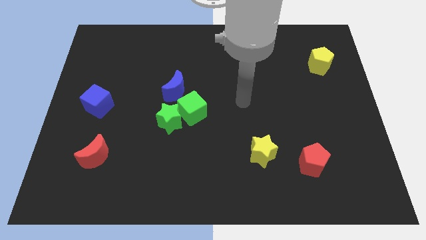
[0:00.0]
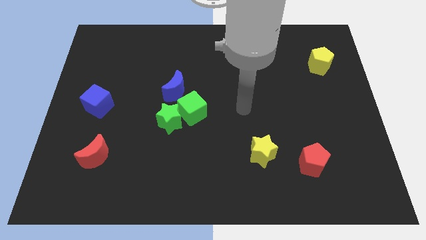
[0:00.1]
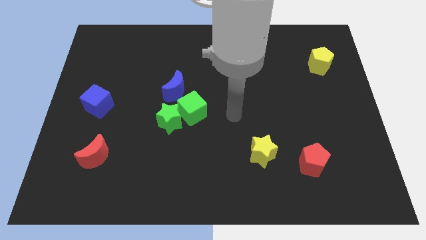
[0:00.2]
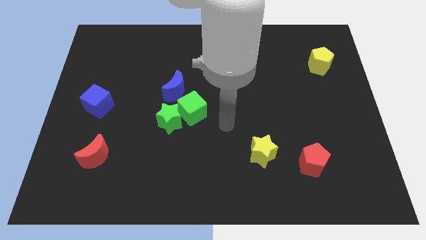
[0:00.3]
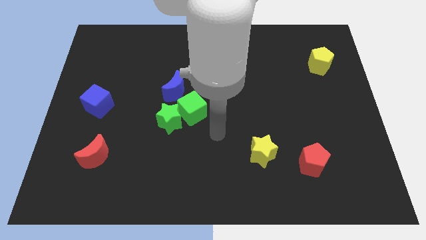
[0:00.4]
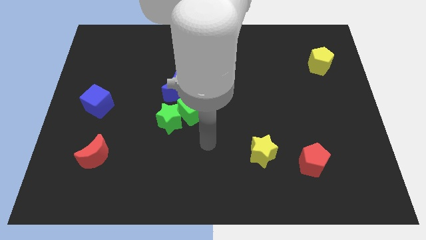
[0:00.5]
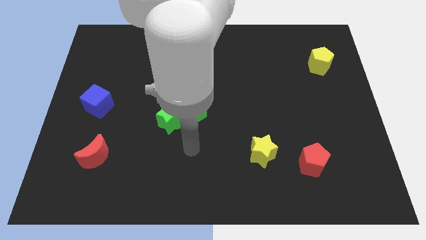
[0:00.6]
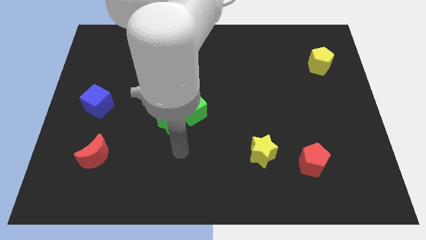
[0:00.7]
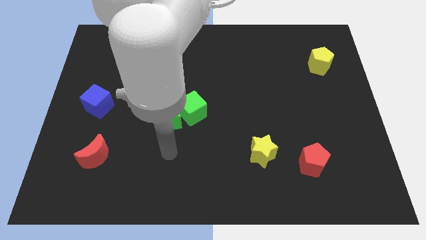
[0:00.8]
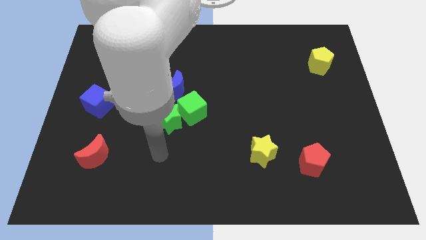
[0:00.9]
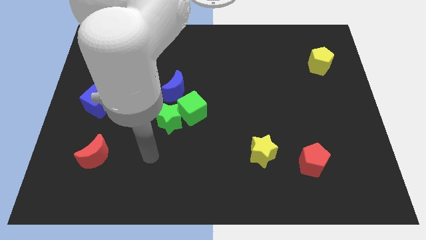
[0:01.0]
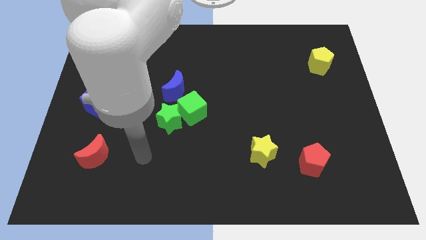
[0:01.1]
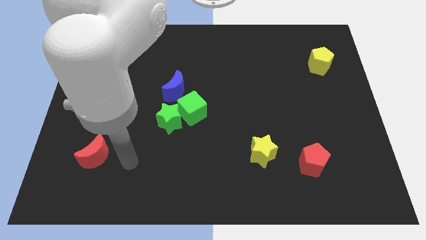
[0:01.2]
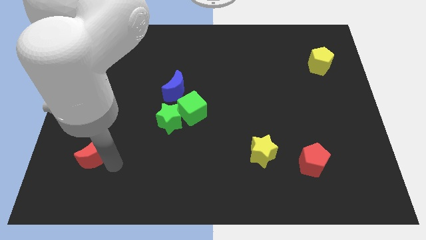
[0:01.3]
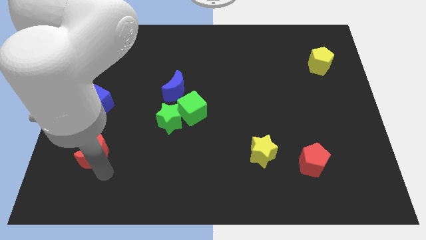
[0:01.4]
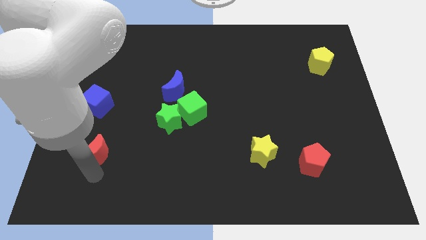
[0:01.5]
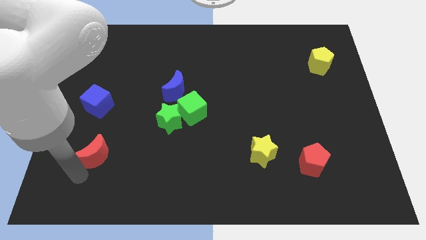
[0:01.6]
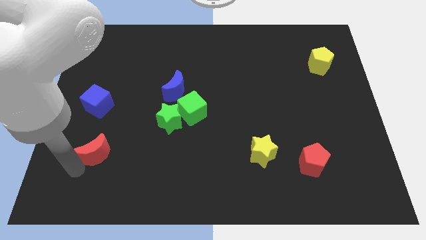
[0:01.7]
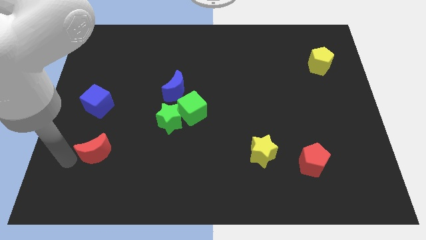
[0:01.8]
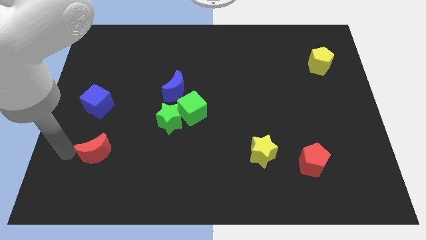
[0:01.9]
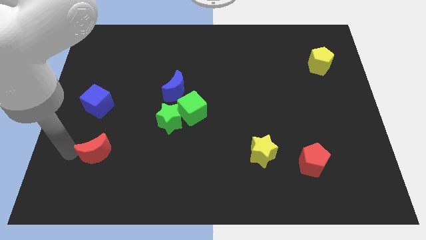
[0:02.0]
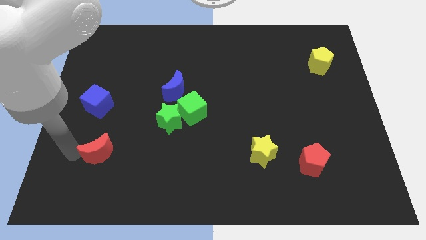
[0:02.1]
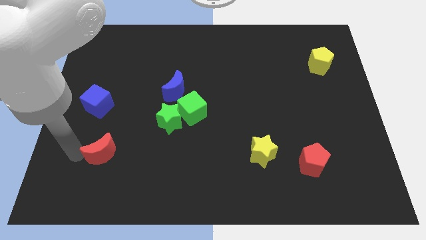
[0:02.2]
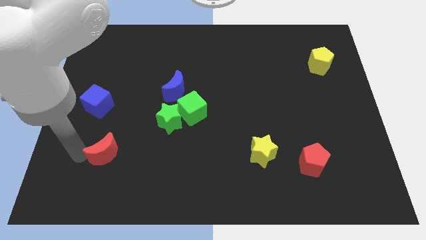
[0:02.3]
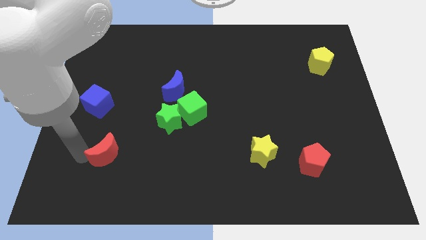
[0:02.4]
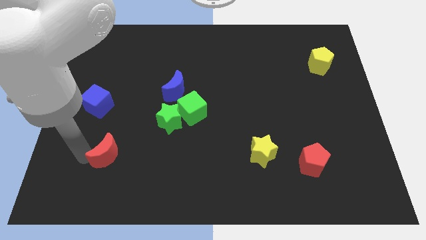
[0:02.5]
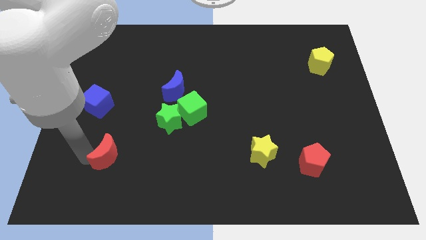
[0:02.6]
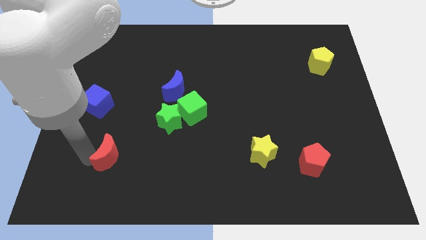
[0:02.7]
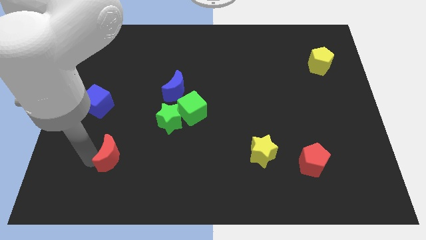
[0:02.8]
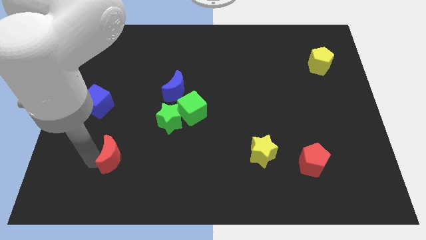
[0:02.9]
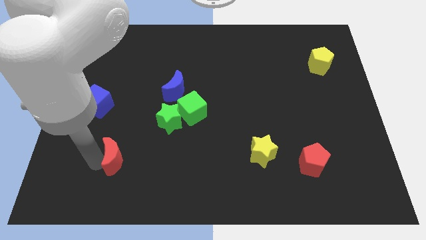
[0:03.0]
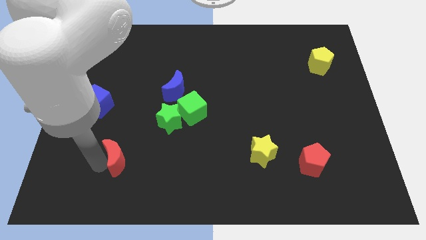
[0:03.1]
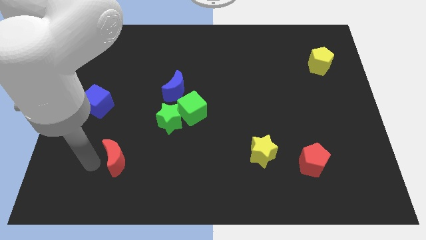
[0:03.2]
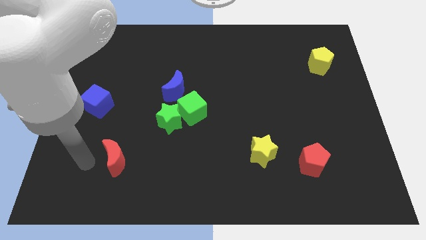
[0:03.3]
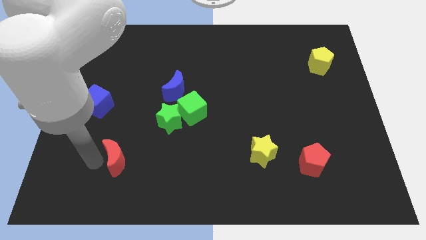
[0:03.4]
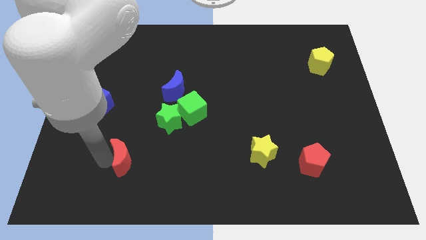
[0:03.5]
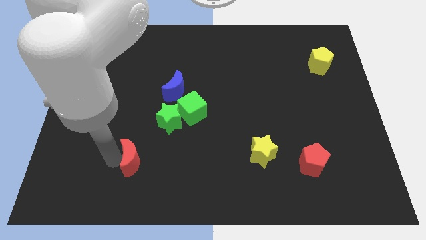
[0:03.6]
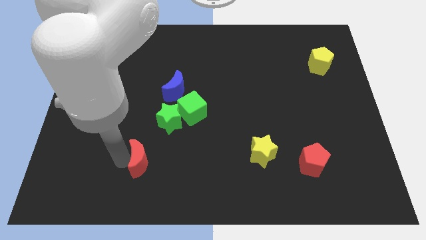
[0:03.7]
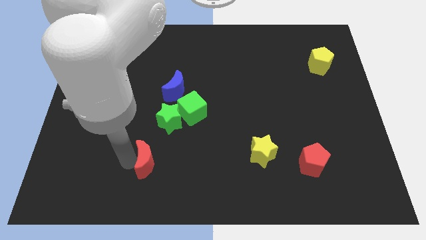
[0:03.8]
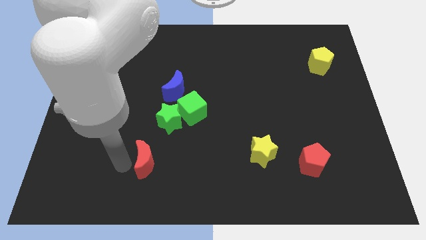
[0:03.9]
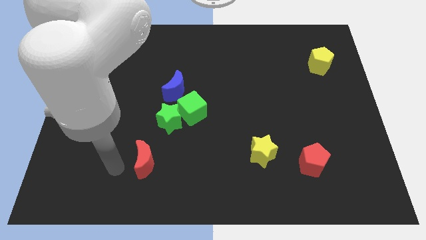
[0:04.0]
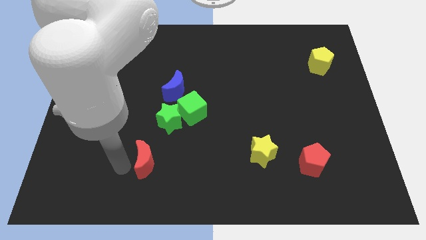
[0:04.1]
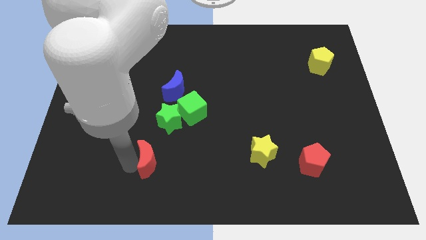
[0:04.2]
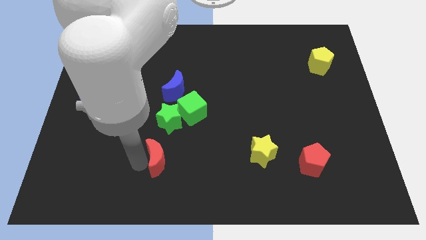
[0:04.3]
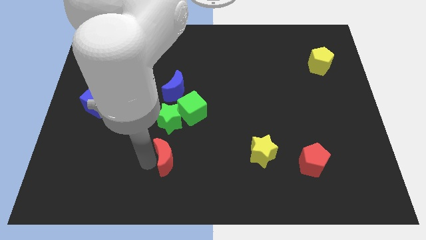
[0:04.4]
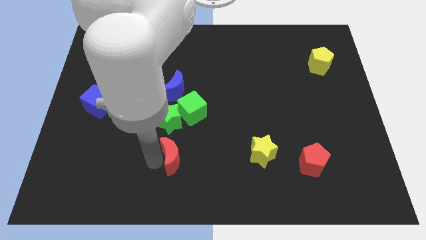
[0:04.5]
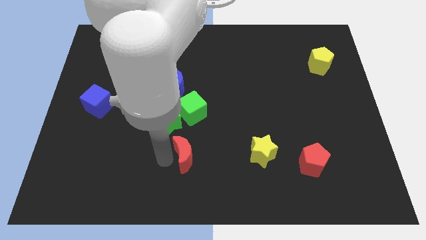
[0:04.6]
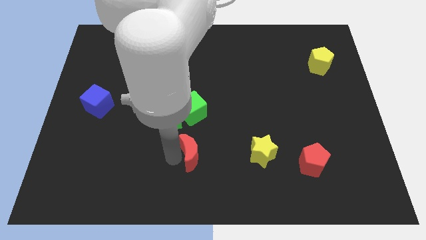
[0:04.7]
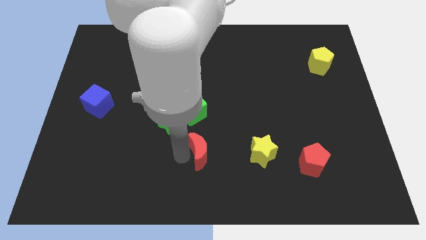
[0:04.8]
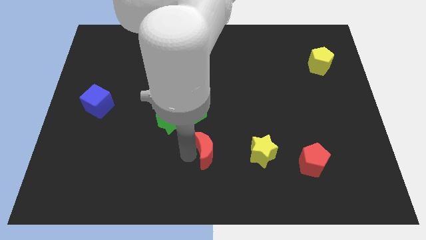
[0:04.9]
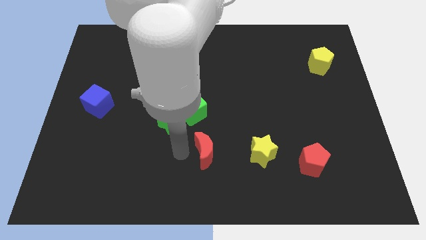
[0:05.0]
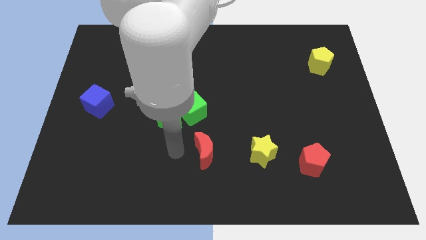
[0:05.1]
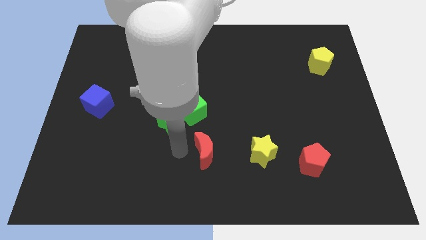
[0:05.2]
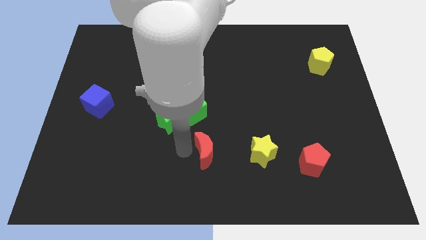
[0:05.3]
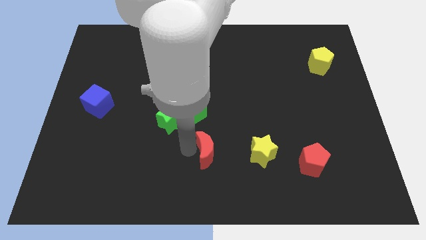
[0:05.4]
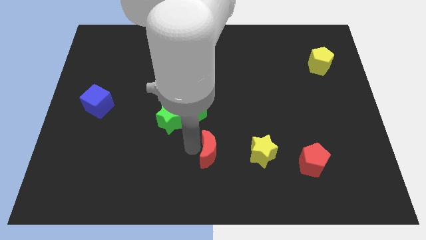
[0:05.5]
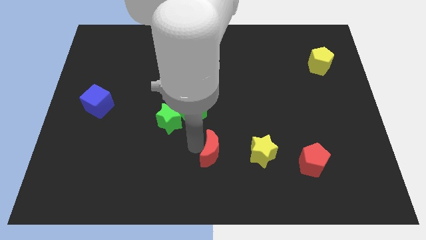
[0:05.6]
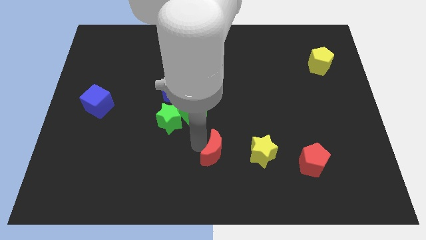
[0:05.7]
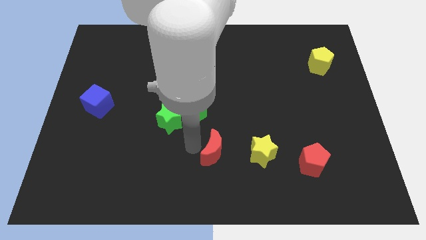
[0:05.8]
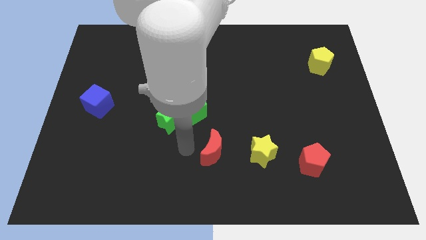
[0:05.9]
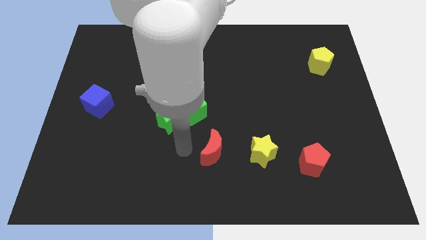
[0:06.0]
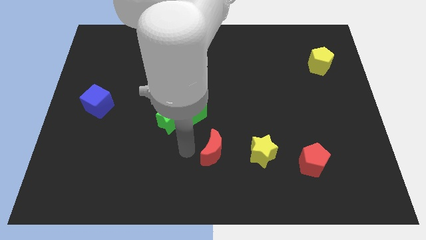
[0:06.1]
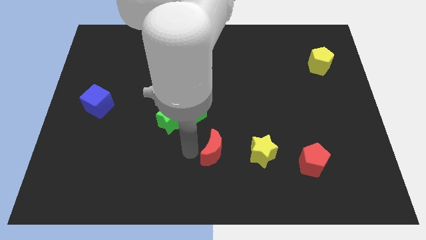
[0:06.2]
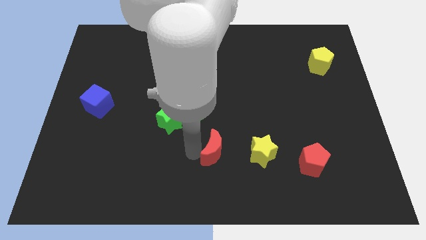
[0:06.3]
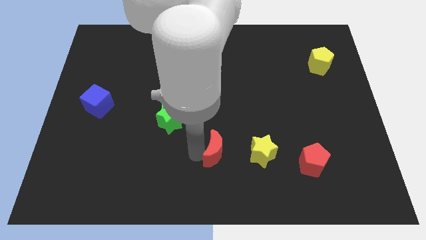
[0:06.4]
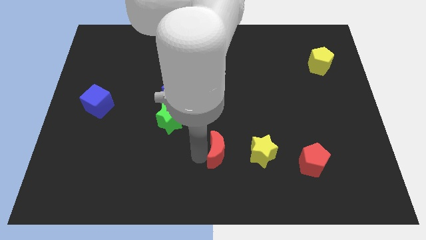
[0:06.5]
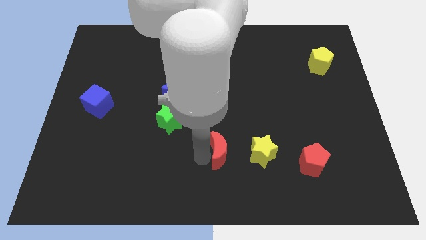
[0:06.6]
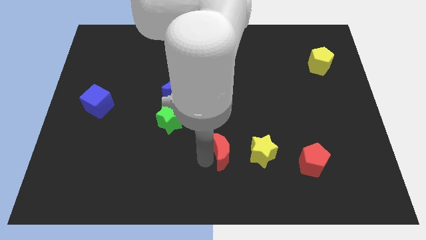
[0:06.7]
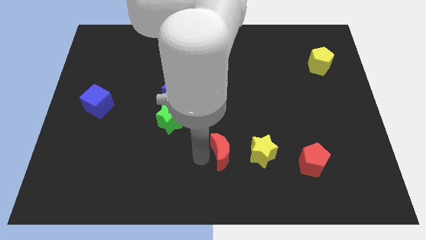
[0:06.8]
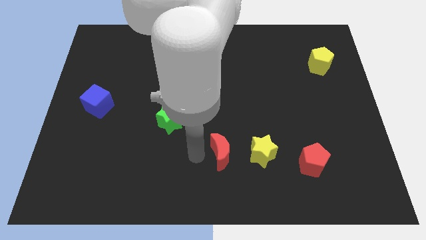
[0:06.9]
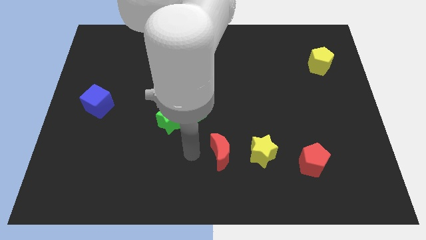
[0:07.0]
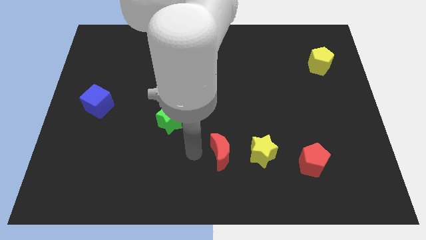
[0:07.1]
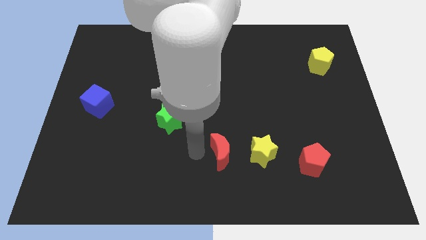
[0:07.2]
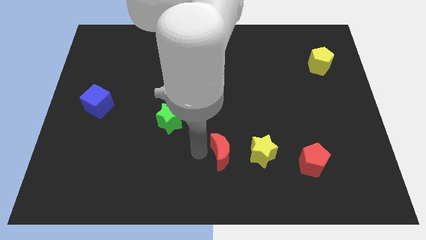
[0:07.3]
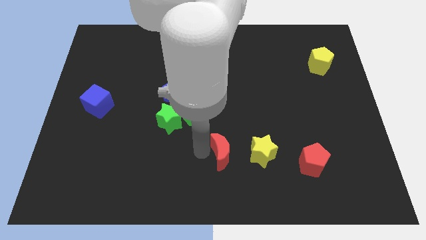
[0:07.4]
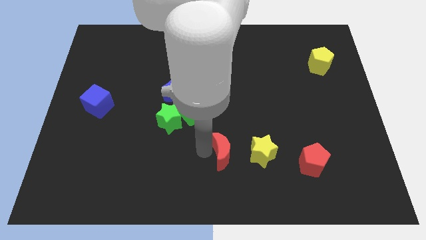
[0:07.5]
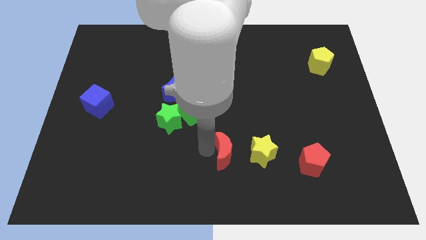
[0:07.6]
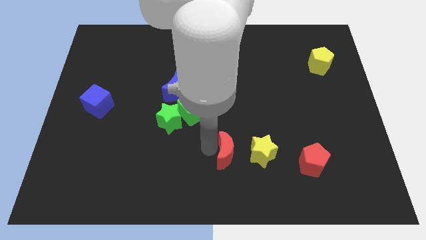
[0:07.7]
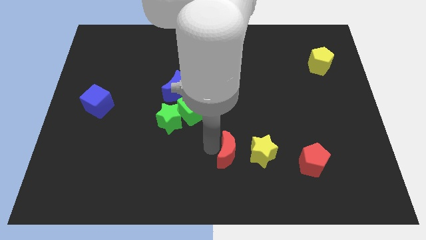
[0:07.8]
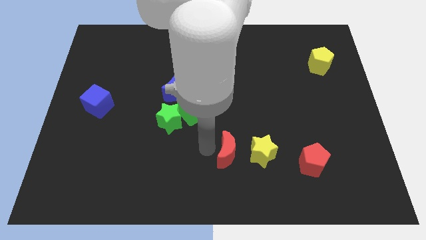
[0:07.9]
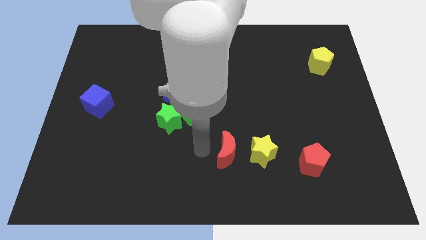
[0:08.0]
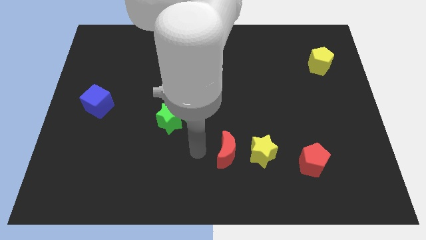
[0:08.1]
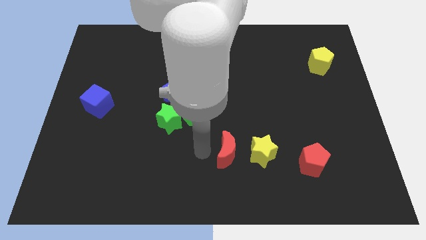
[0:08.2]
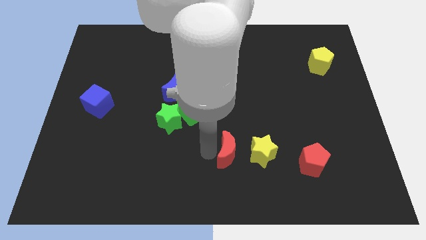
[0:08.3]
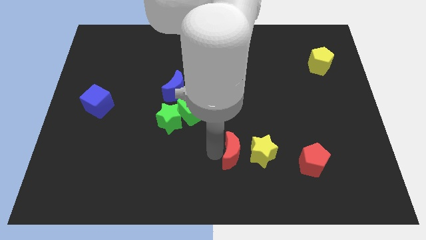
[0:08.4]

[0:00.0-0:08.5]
push the red moon next to the yellow star
